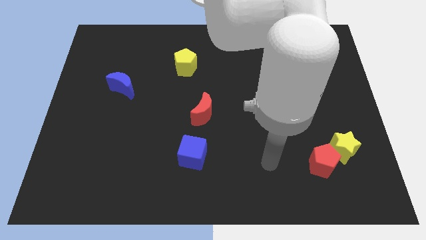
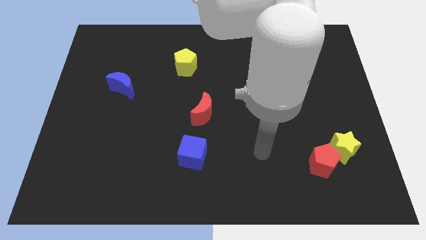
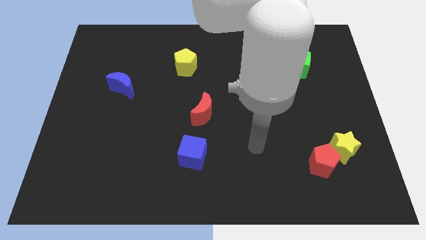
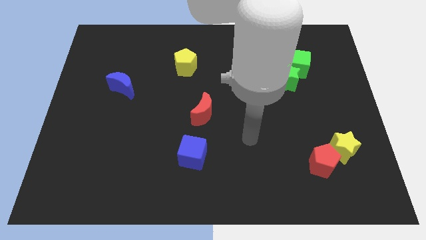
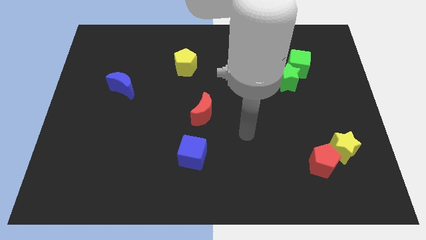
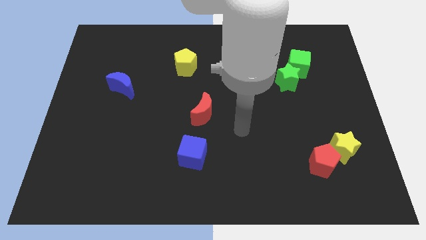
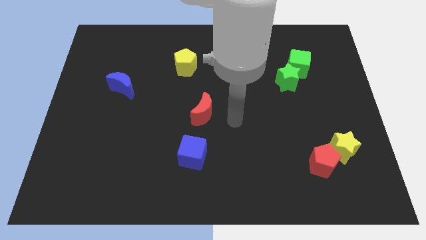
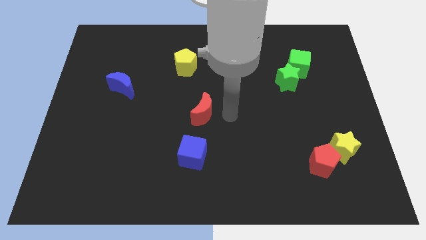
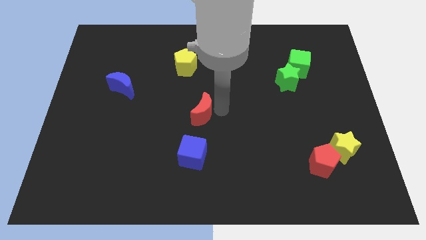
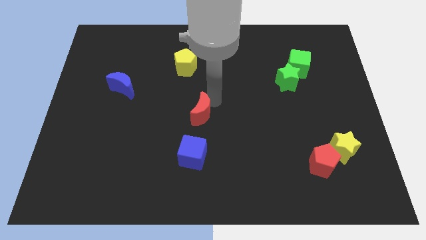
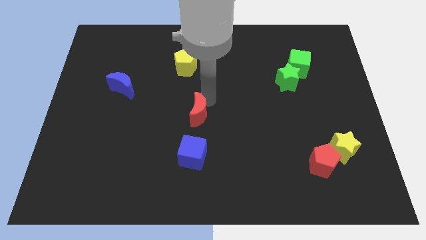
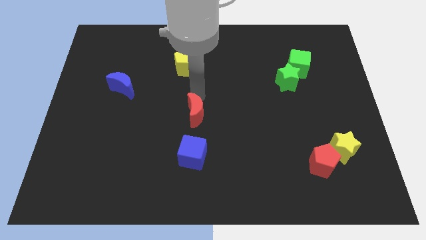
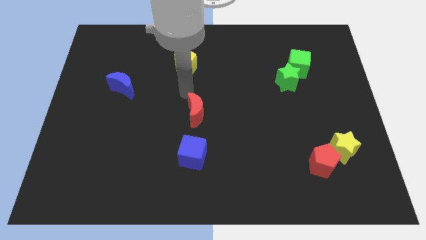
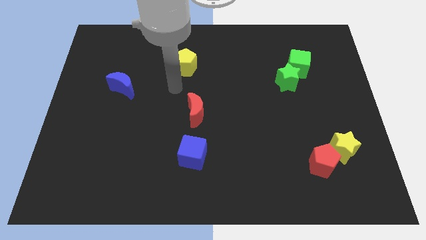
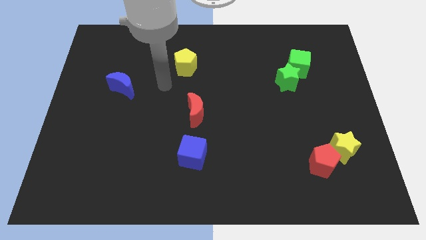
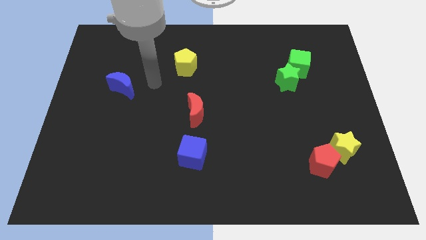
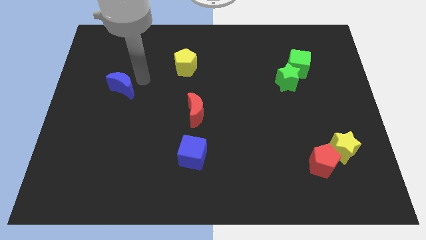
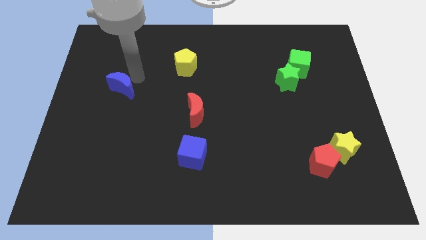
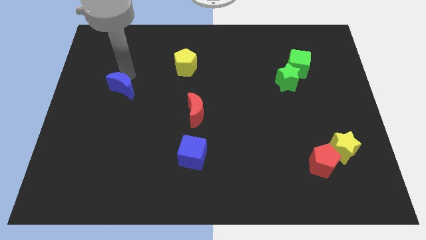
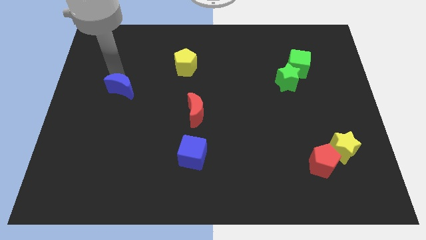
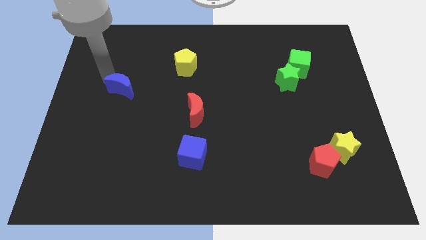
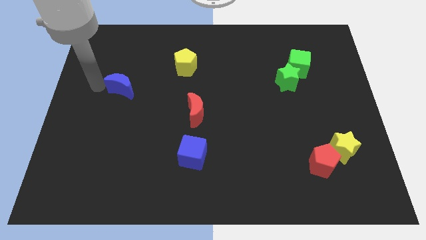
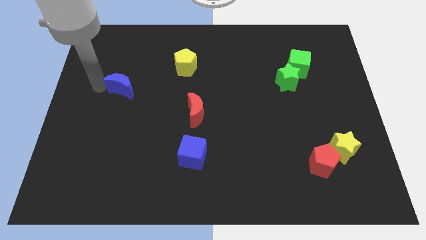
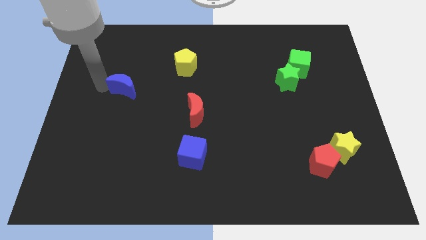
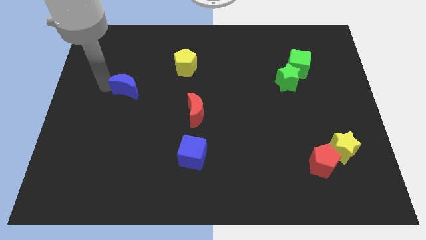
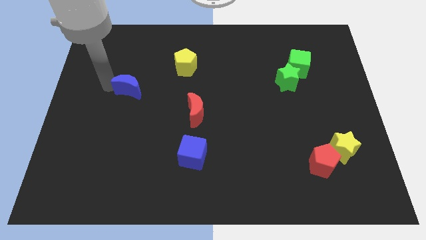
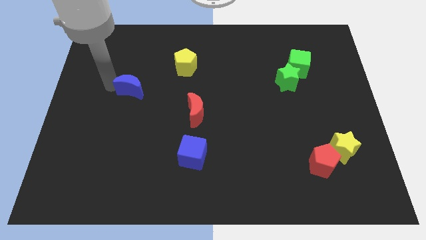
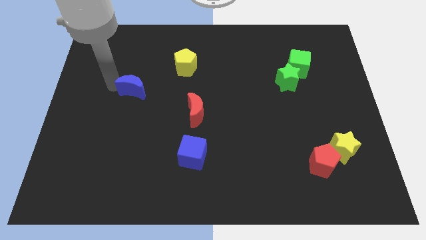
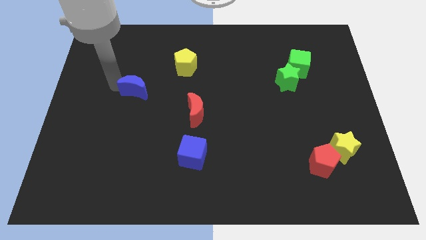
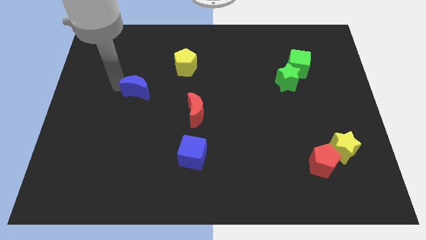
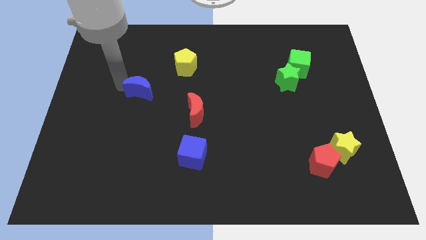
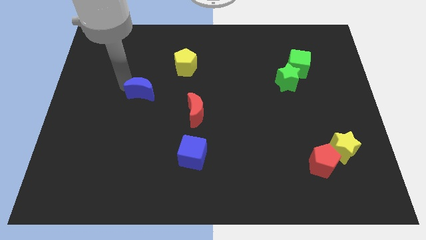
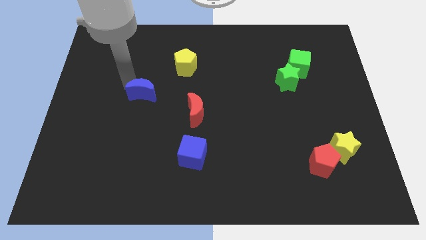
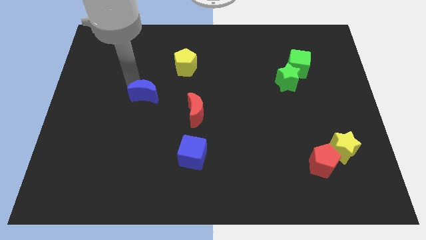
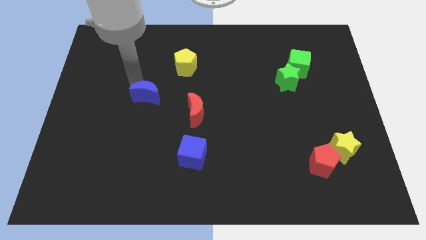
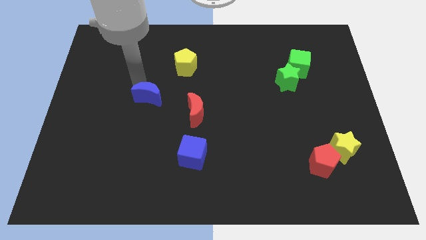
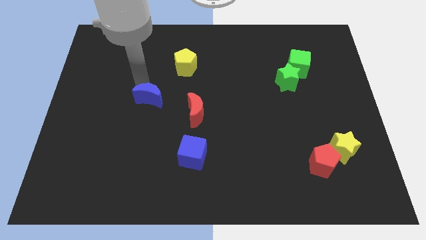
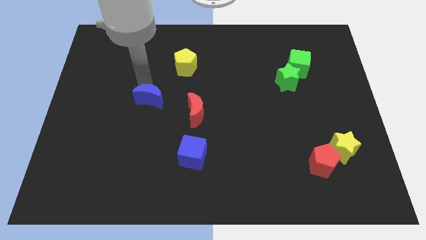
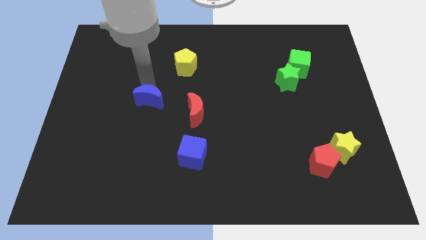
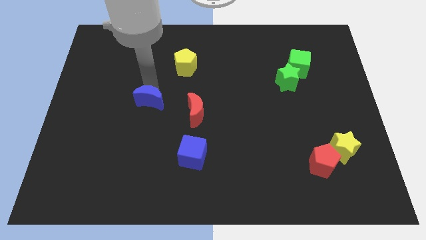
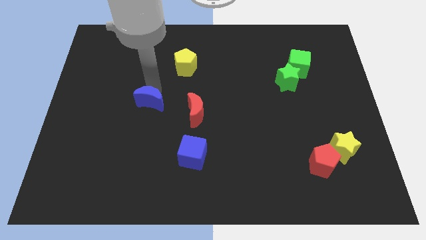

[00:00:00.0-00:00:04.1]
slightly move the blue moon to the right

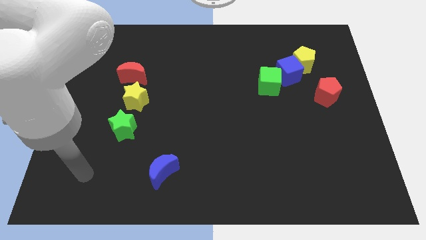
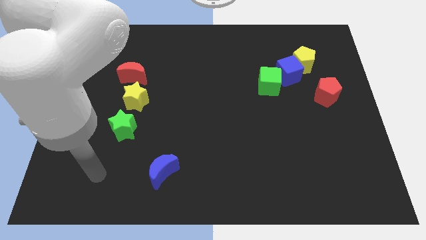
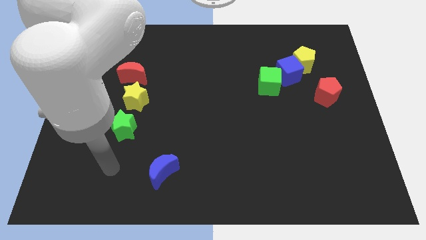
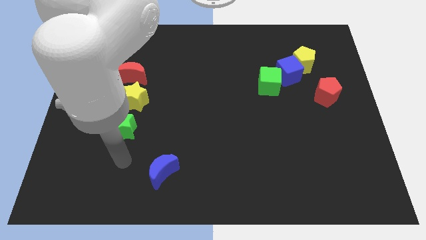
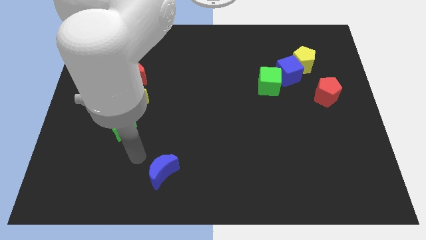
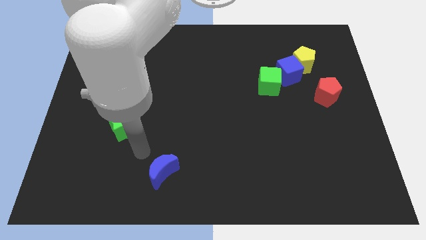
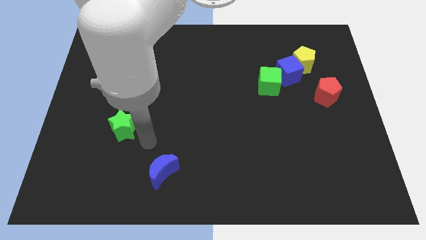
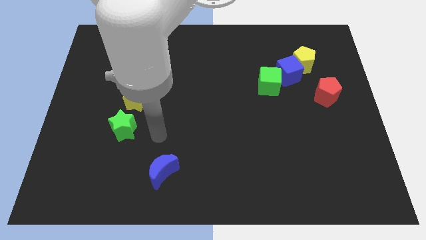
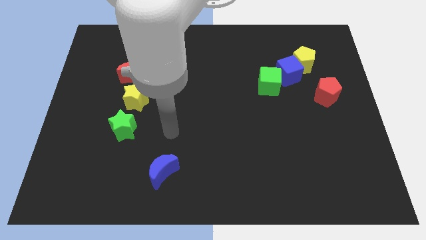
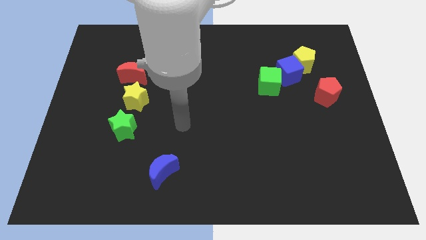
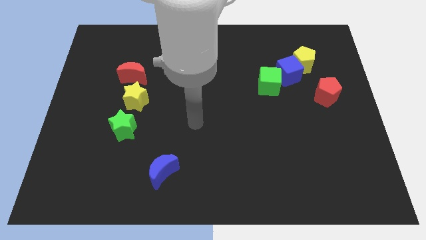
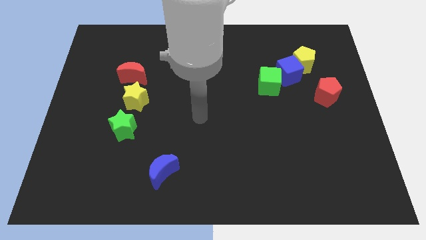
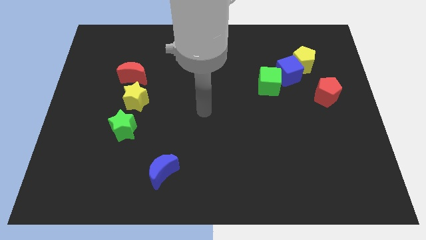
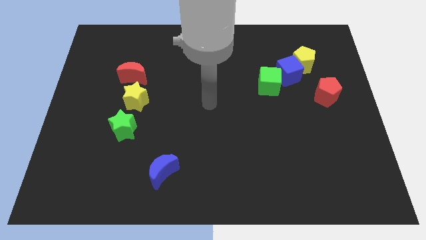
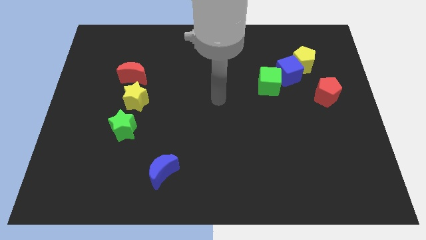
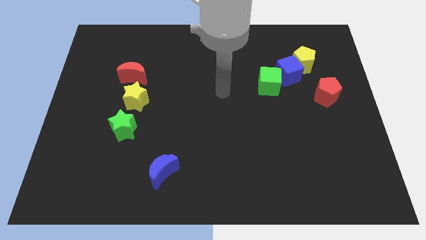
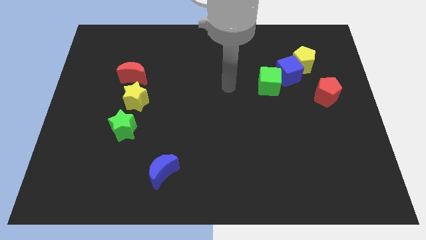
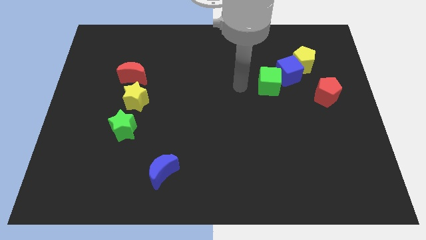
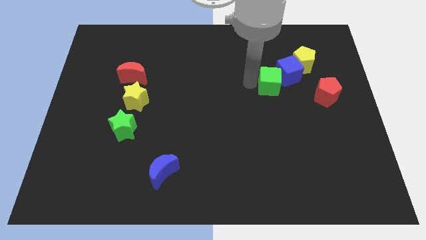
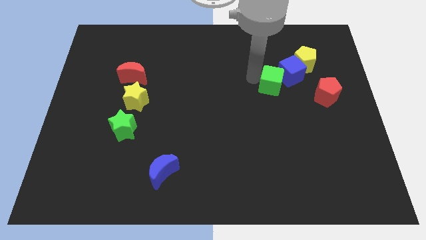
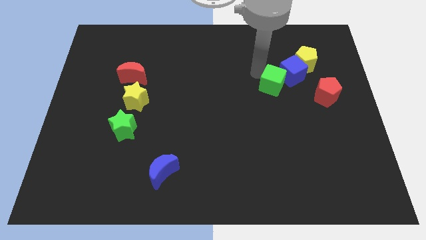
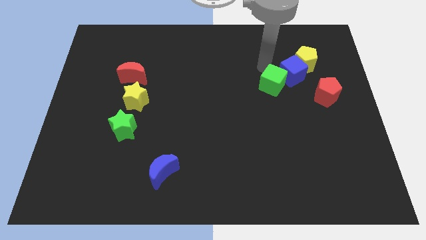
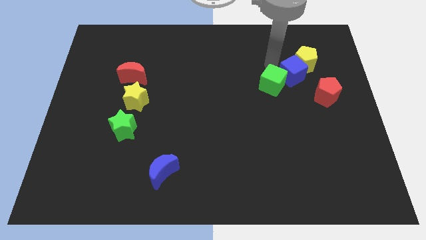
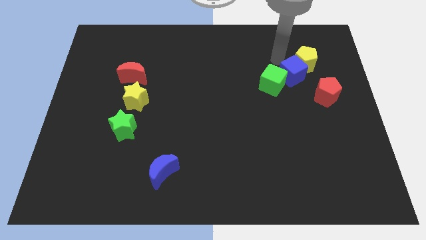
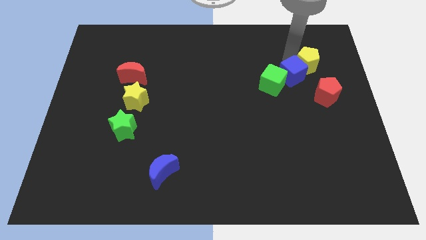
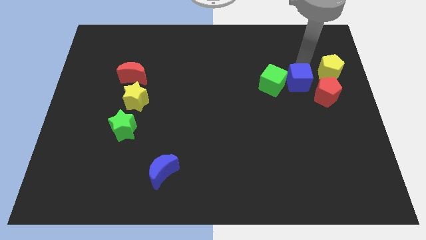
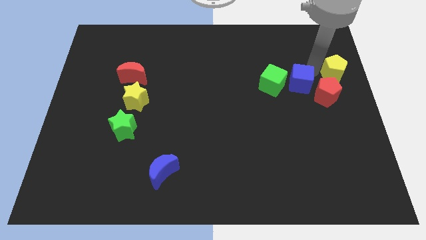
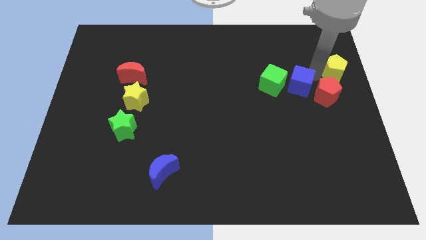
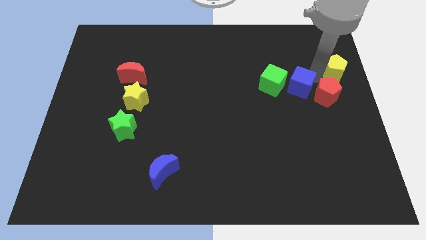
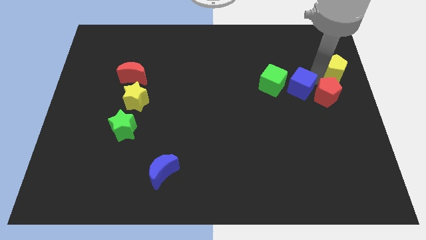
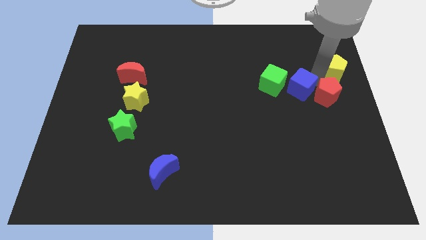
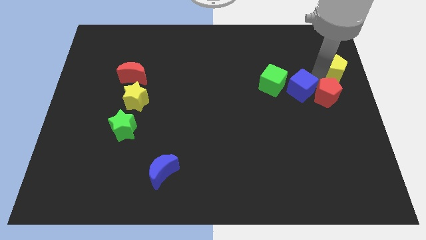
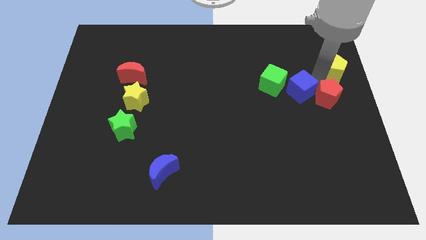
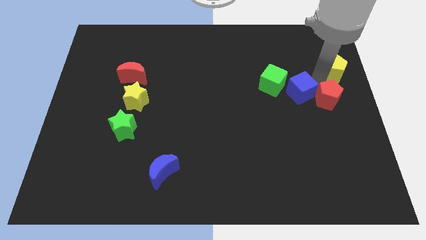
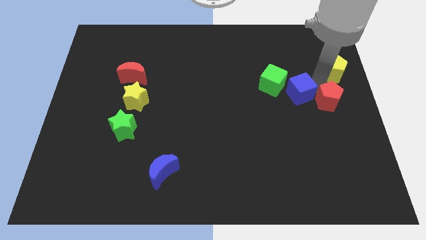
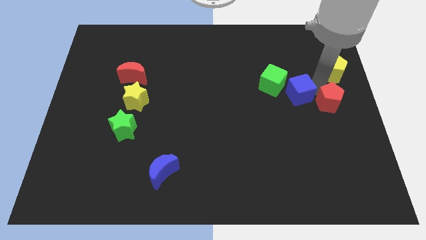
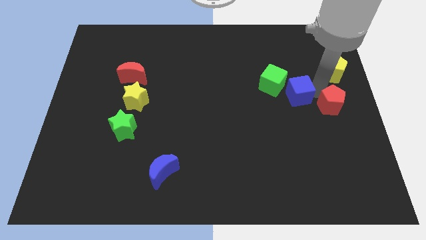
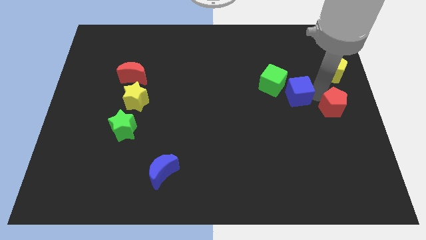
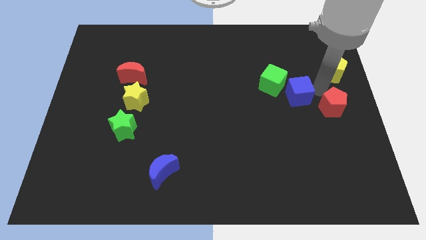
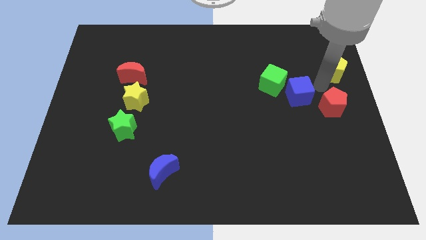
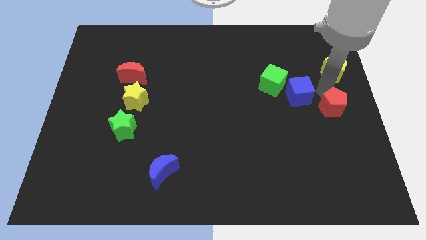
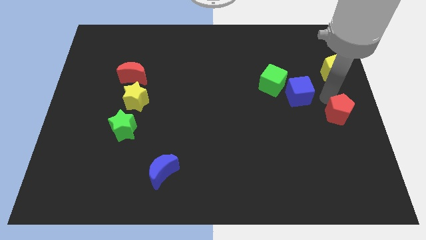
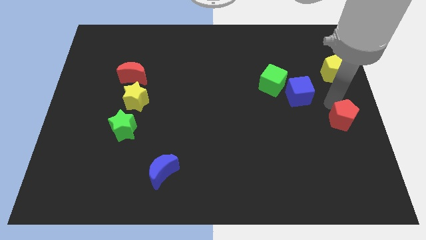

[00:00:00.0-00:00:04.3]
slide the red pentagon downwards somewhat
